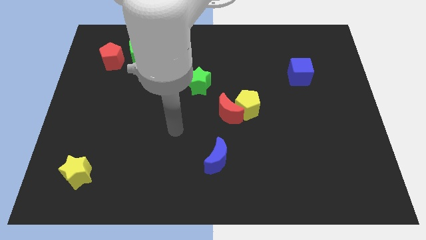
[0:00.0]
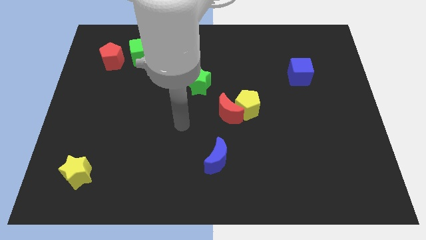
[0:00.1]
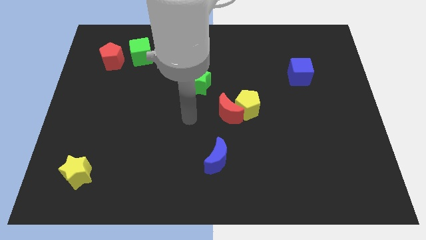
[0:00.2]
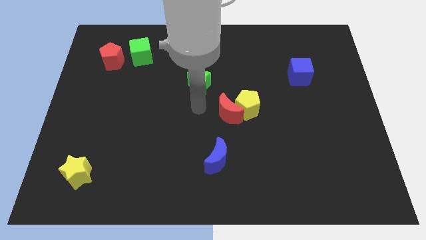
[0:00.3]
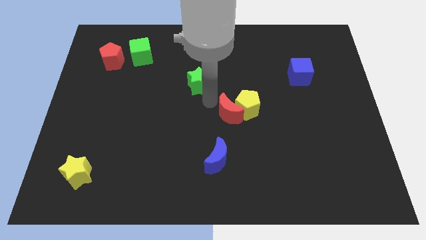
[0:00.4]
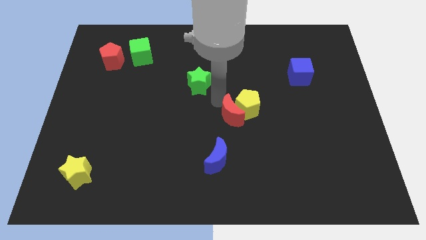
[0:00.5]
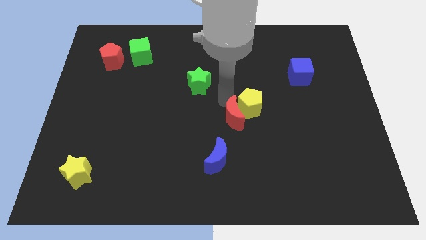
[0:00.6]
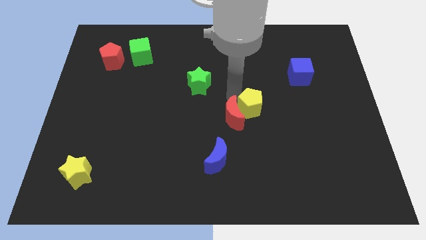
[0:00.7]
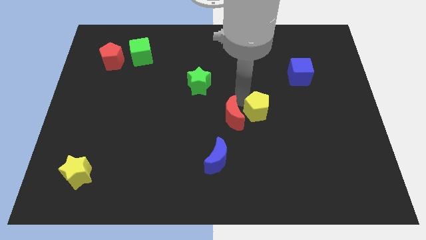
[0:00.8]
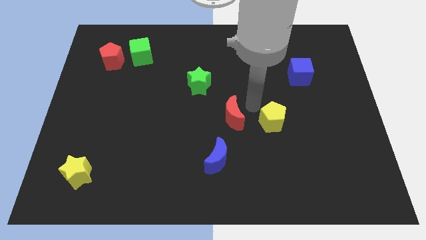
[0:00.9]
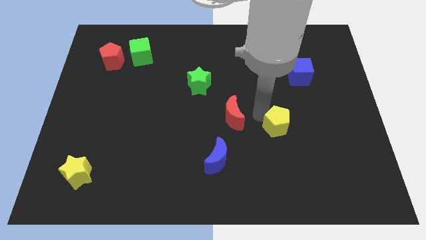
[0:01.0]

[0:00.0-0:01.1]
move the red moon away from the yellow pentagon

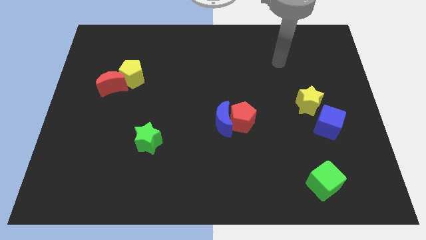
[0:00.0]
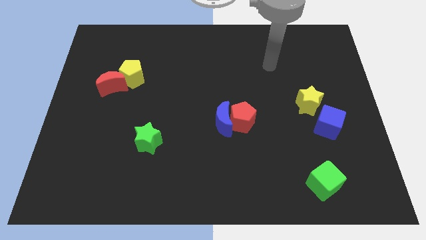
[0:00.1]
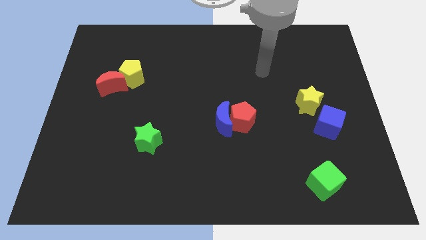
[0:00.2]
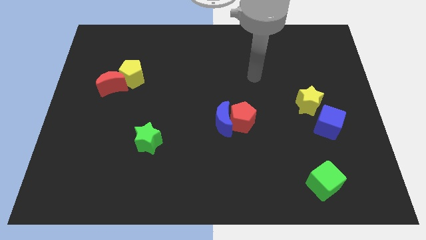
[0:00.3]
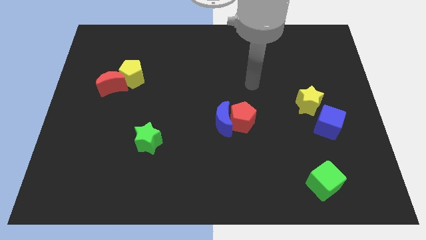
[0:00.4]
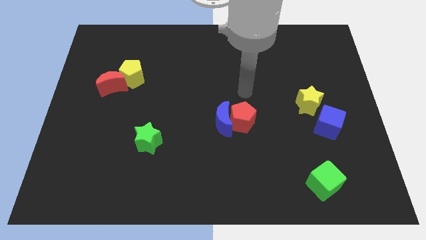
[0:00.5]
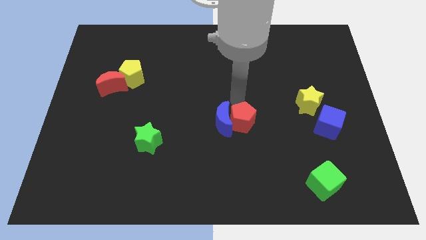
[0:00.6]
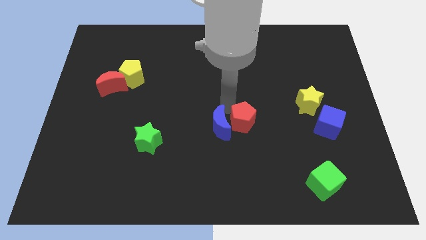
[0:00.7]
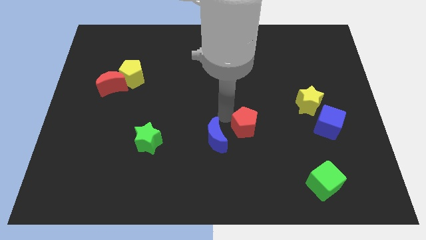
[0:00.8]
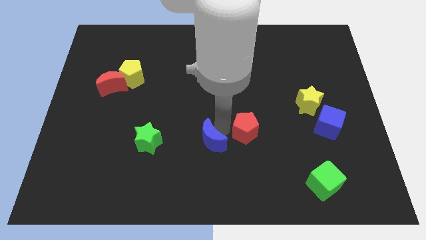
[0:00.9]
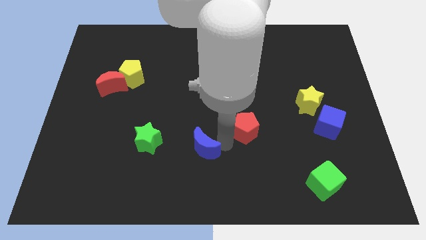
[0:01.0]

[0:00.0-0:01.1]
pull the red pentagon apart from the blue moon

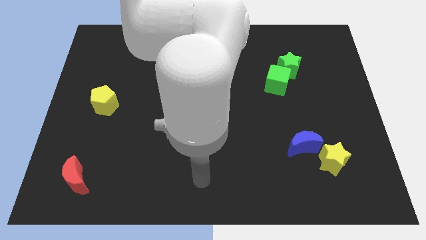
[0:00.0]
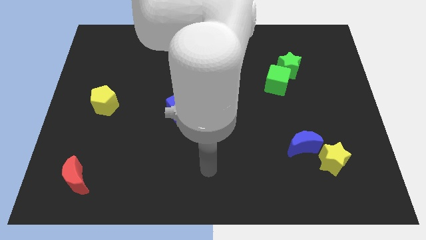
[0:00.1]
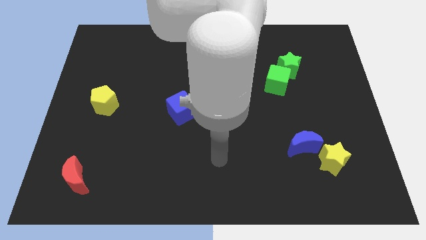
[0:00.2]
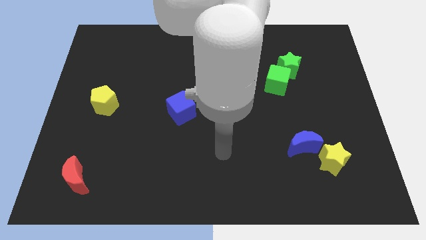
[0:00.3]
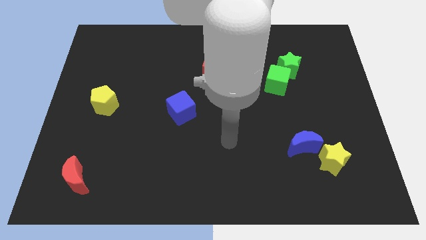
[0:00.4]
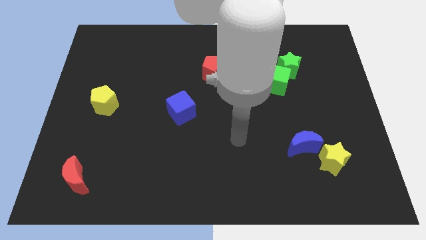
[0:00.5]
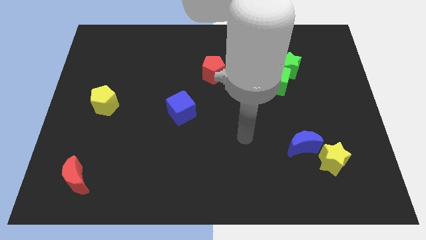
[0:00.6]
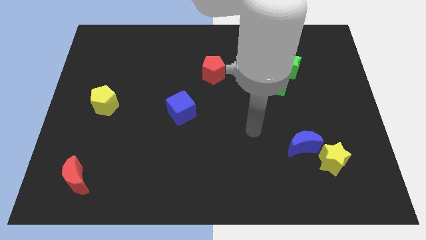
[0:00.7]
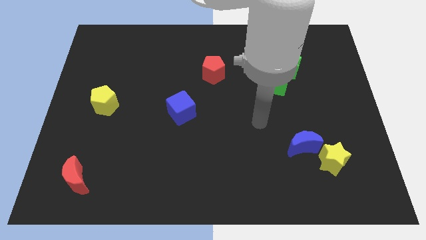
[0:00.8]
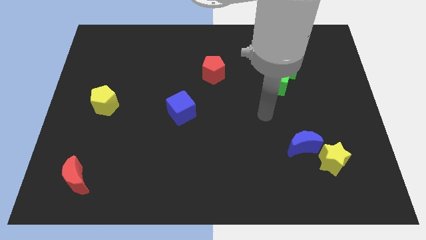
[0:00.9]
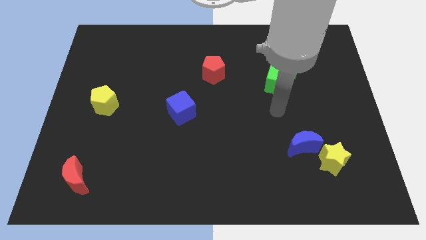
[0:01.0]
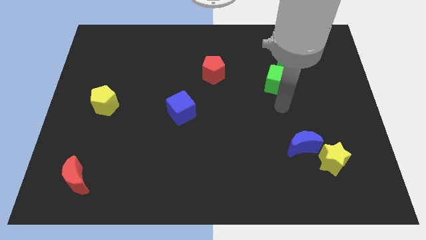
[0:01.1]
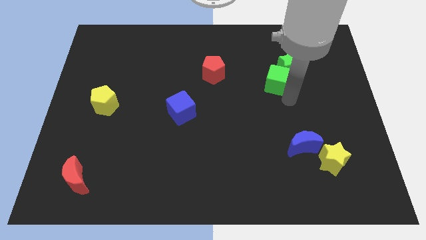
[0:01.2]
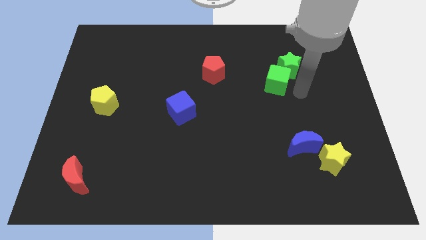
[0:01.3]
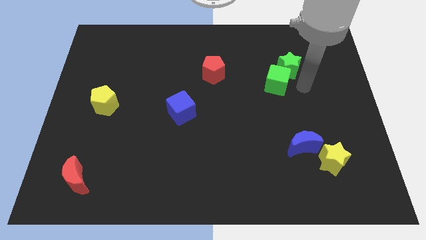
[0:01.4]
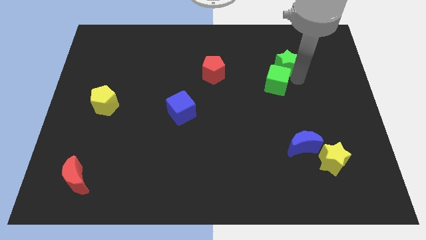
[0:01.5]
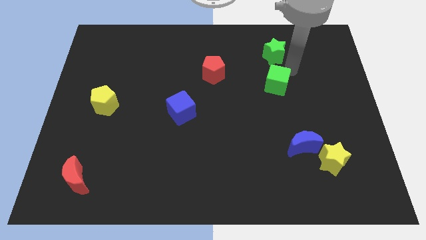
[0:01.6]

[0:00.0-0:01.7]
separate the green cube from the green star

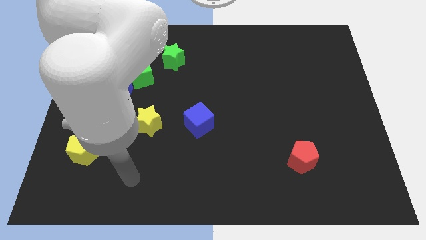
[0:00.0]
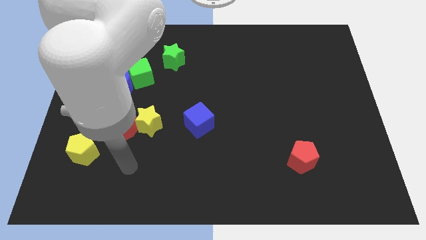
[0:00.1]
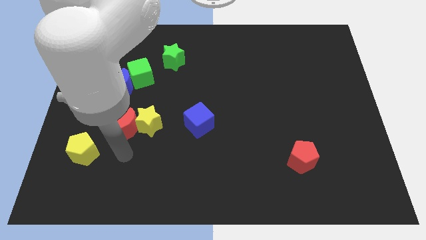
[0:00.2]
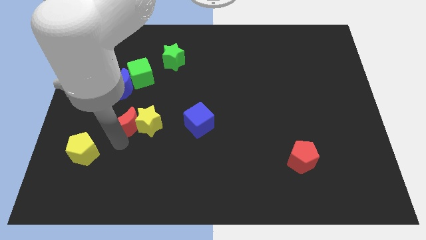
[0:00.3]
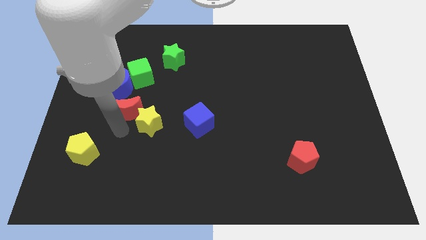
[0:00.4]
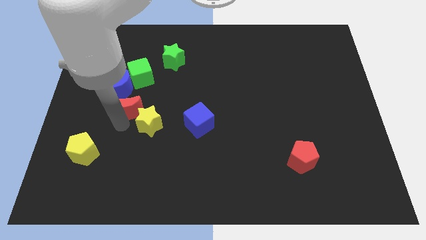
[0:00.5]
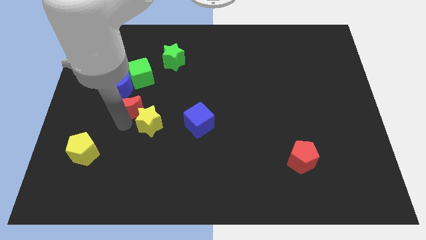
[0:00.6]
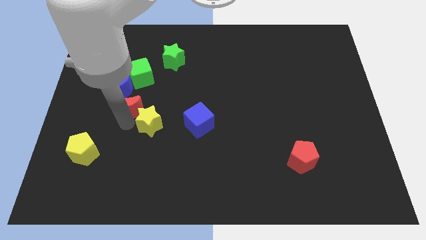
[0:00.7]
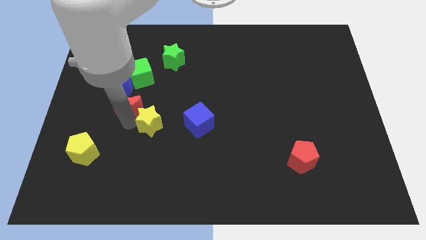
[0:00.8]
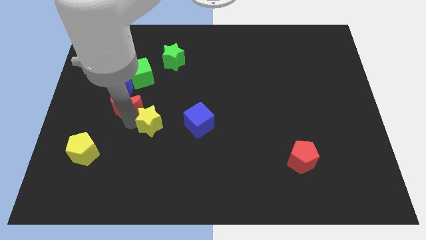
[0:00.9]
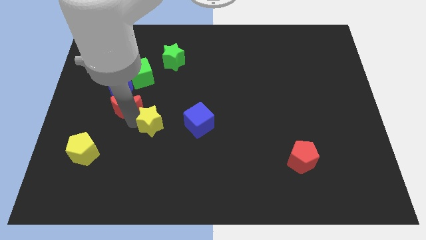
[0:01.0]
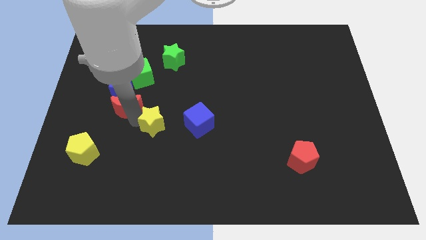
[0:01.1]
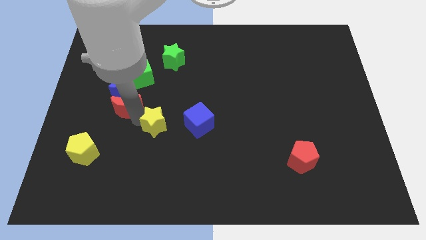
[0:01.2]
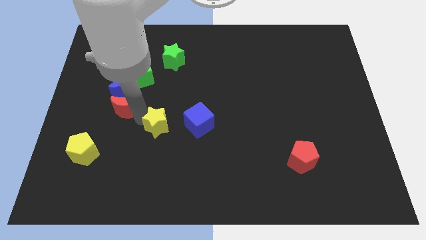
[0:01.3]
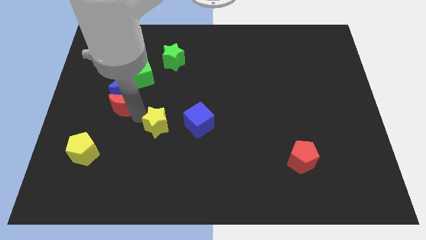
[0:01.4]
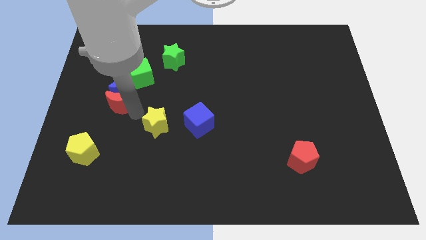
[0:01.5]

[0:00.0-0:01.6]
pull the yellow star apart from the red moon

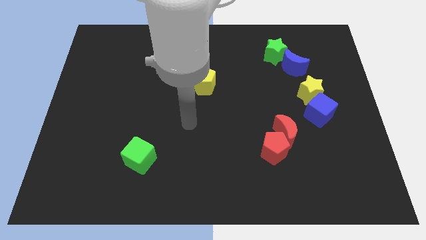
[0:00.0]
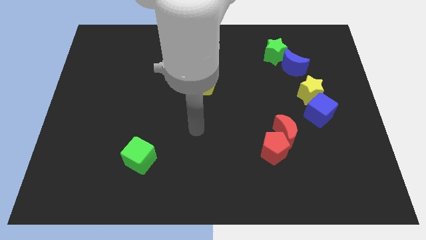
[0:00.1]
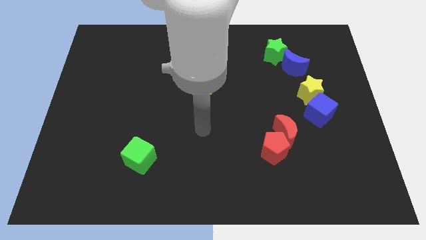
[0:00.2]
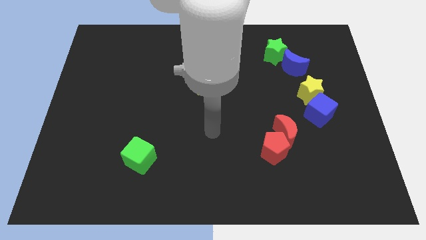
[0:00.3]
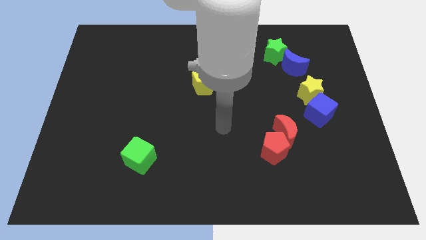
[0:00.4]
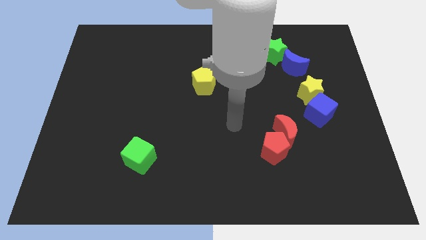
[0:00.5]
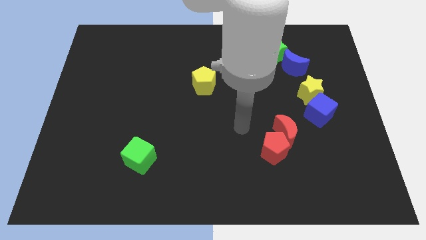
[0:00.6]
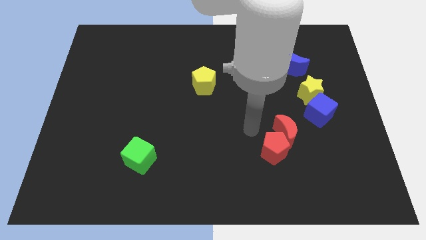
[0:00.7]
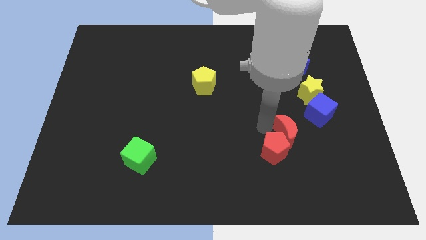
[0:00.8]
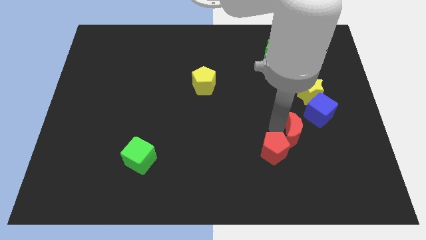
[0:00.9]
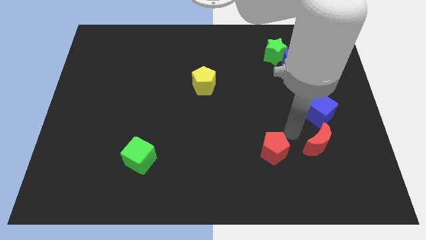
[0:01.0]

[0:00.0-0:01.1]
pull the red pentagon apart from the red moon

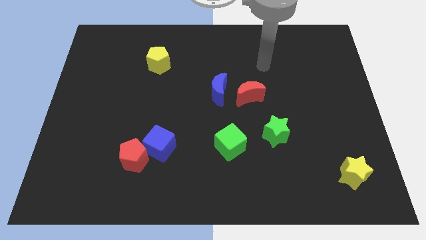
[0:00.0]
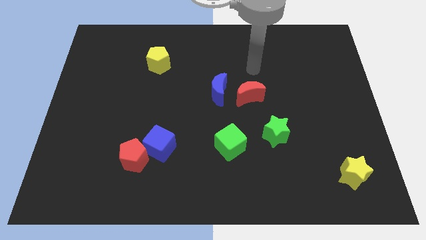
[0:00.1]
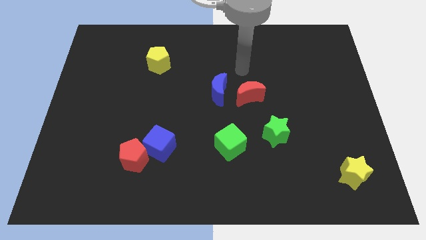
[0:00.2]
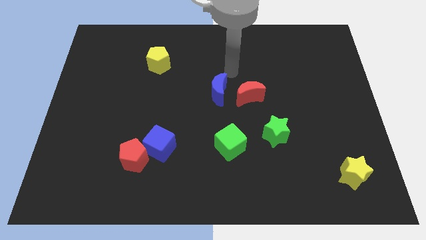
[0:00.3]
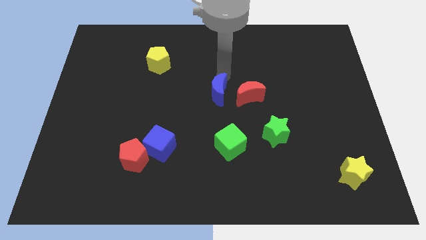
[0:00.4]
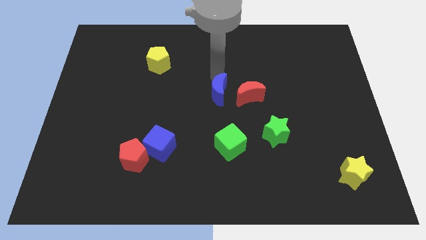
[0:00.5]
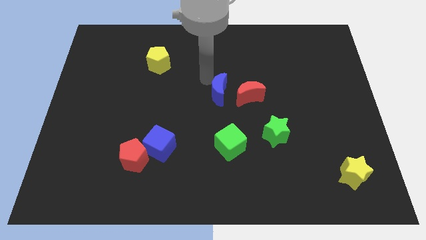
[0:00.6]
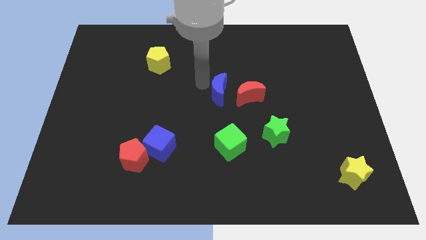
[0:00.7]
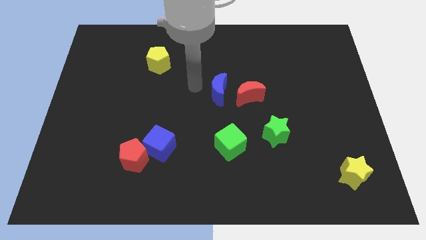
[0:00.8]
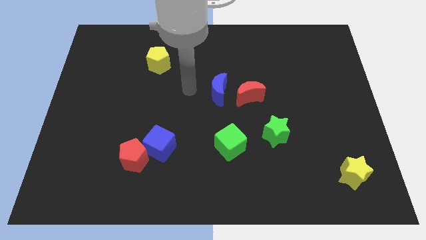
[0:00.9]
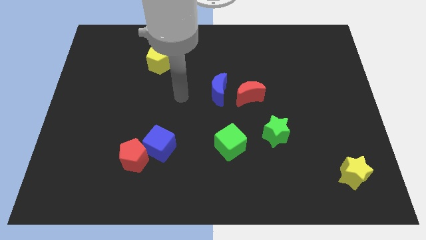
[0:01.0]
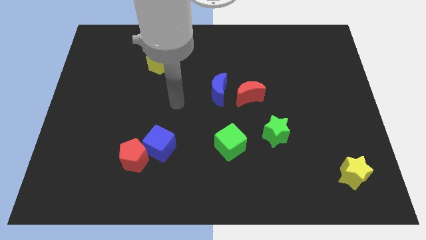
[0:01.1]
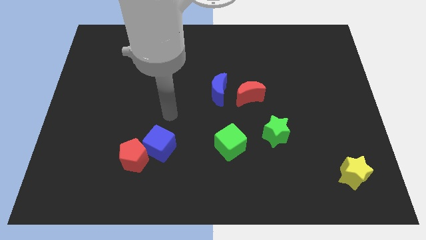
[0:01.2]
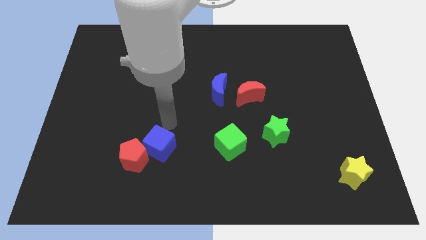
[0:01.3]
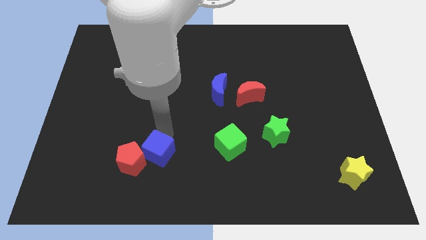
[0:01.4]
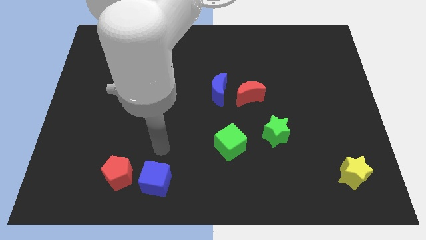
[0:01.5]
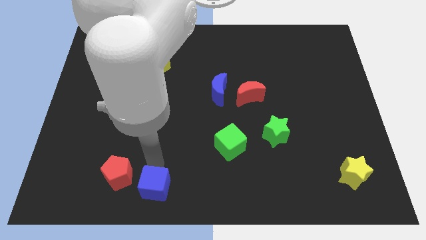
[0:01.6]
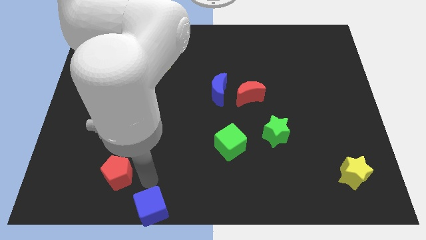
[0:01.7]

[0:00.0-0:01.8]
pull the red pentagon apart from the blue cube

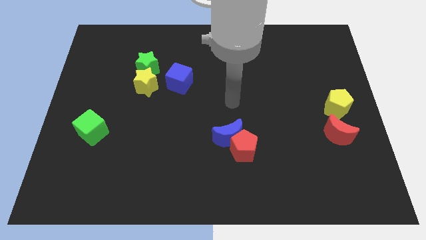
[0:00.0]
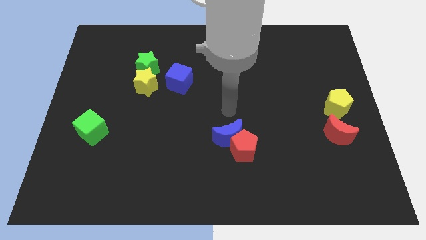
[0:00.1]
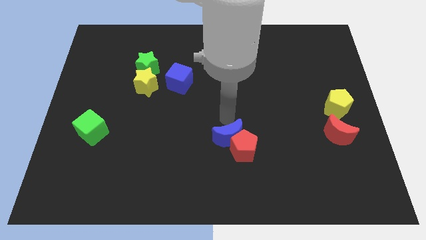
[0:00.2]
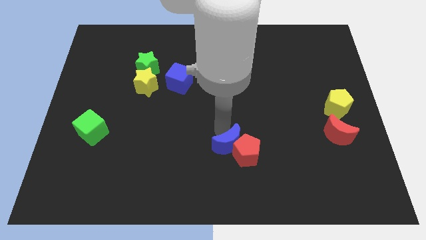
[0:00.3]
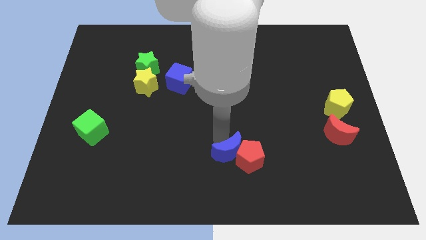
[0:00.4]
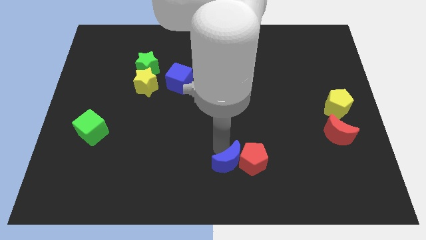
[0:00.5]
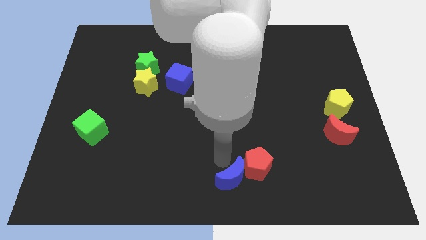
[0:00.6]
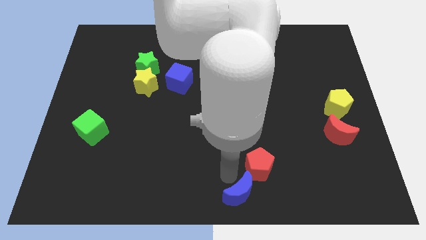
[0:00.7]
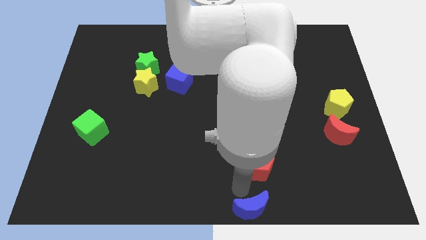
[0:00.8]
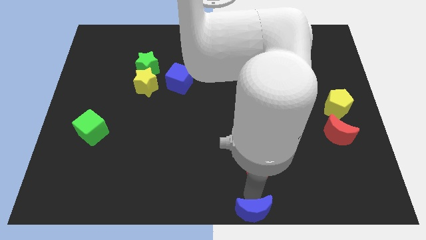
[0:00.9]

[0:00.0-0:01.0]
move the red pentagon away from the blue moon
